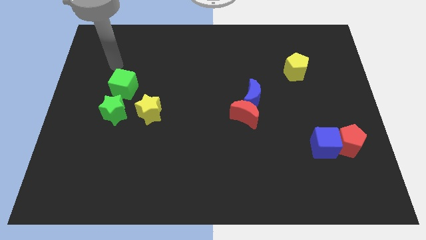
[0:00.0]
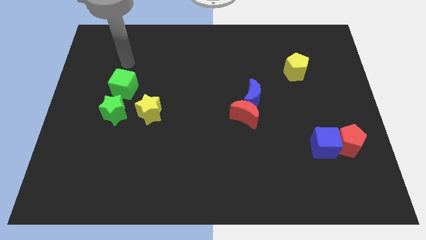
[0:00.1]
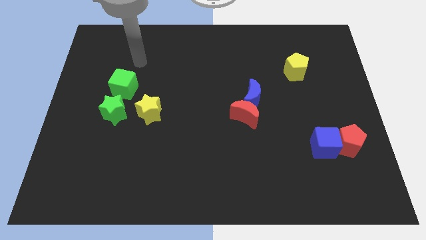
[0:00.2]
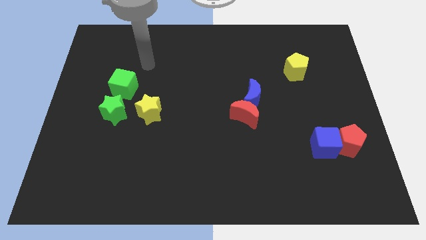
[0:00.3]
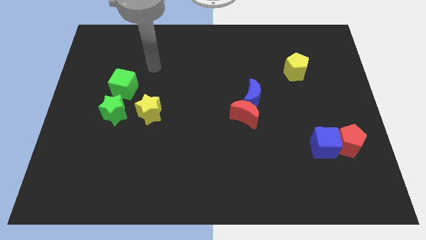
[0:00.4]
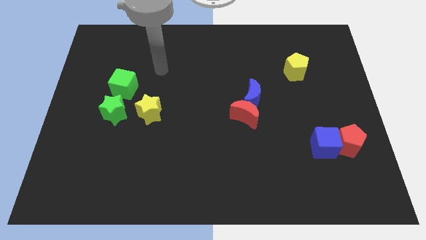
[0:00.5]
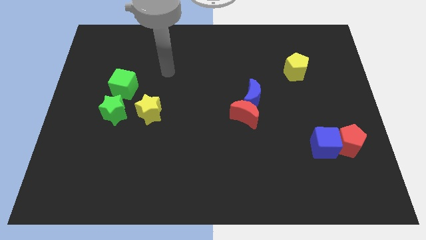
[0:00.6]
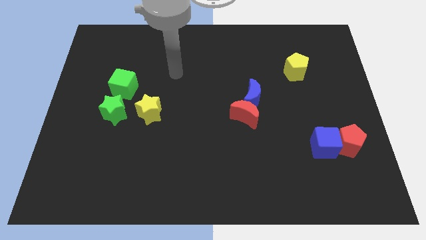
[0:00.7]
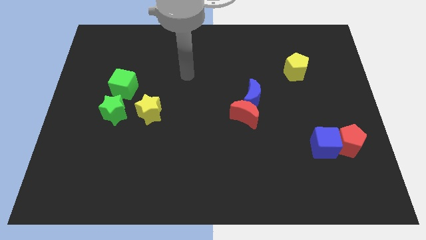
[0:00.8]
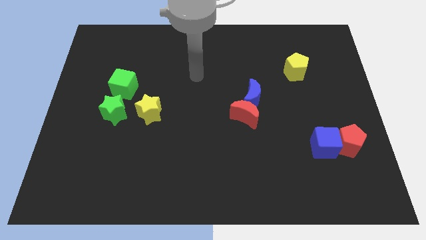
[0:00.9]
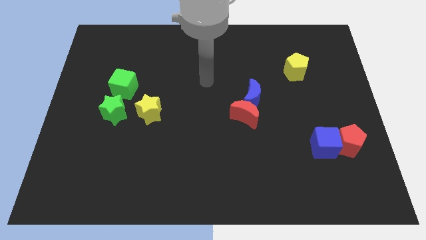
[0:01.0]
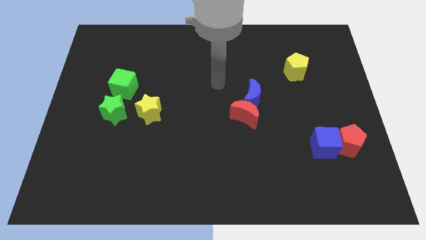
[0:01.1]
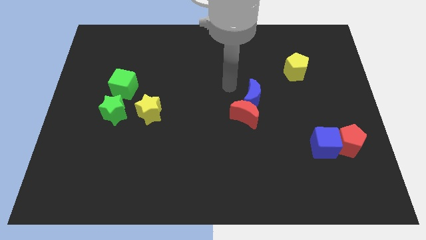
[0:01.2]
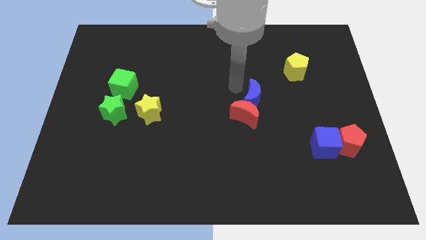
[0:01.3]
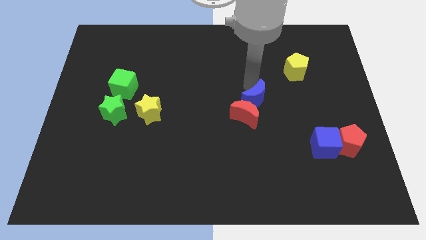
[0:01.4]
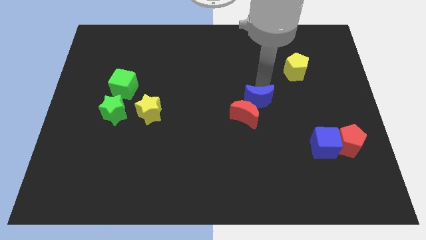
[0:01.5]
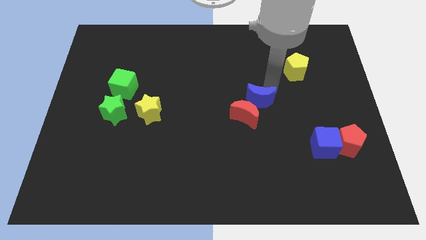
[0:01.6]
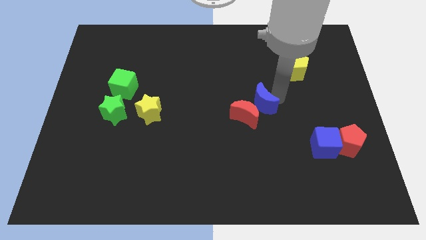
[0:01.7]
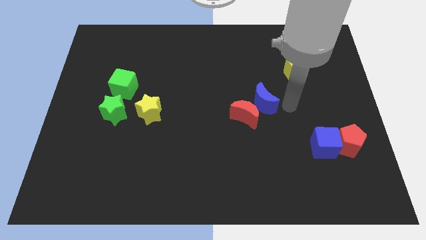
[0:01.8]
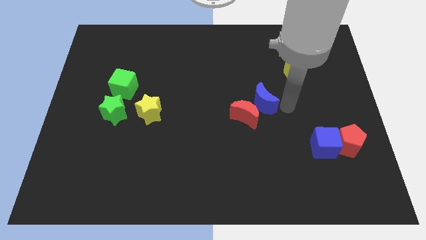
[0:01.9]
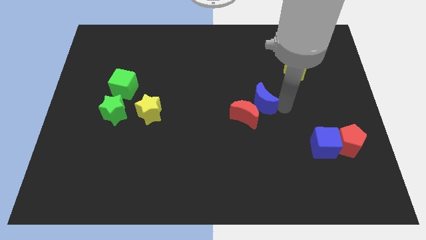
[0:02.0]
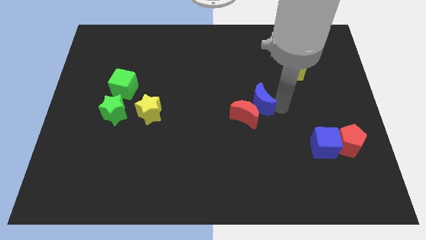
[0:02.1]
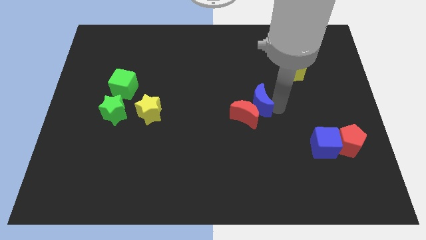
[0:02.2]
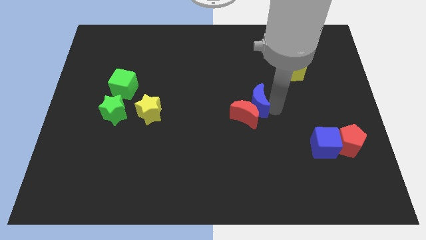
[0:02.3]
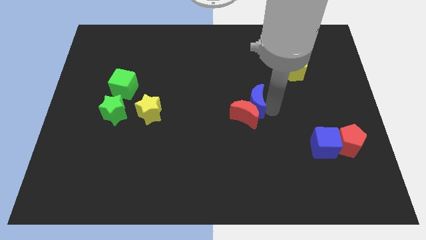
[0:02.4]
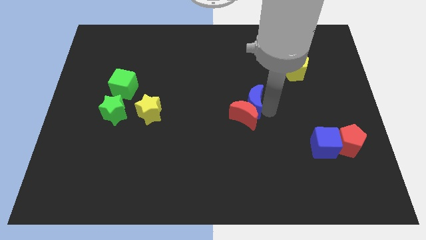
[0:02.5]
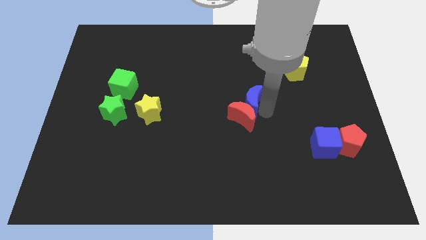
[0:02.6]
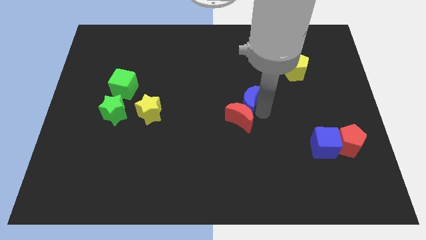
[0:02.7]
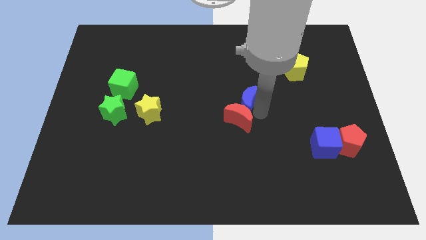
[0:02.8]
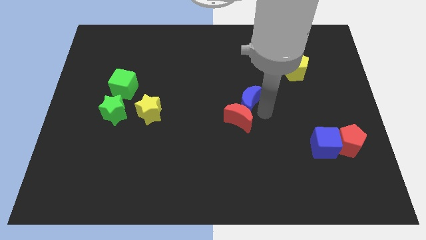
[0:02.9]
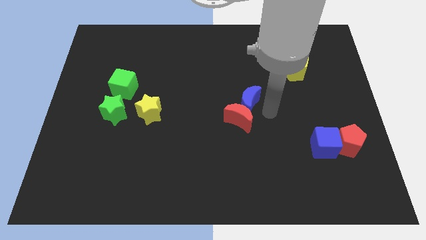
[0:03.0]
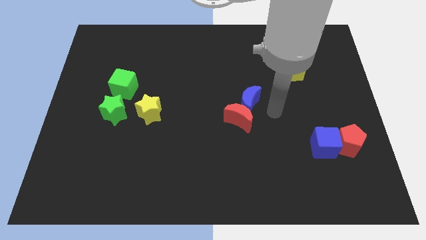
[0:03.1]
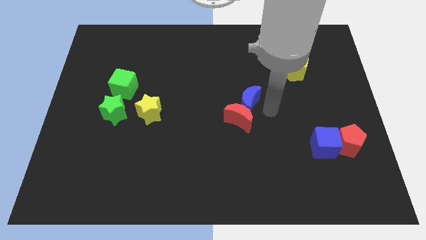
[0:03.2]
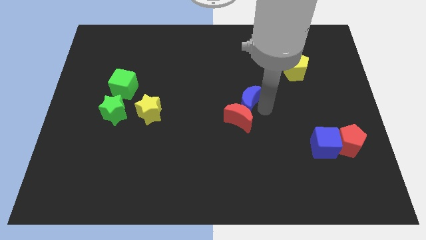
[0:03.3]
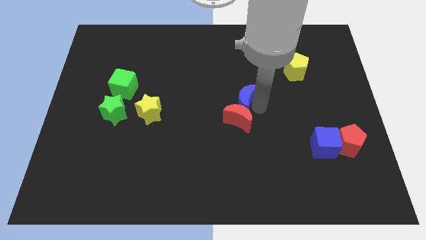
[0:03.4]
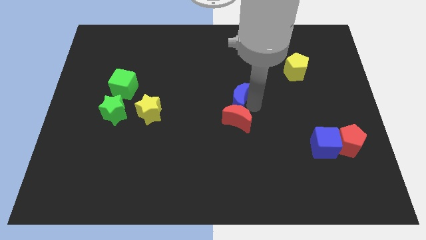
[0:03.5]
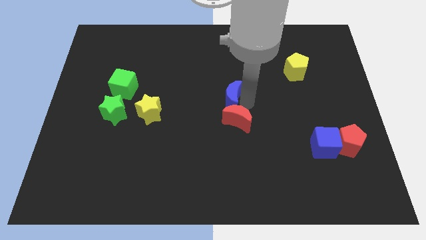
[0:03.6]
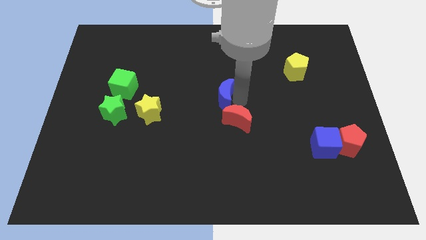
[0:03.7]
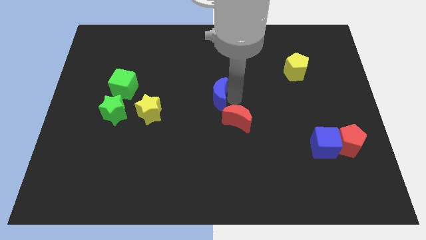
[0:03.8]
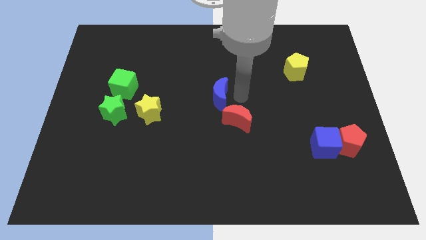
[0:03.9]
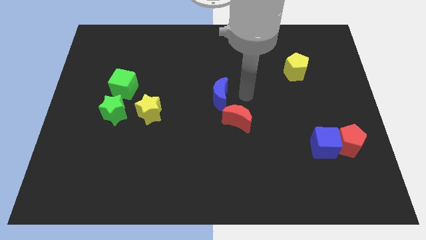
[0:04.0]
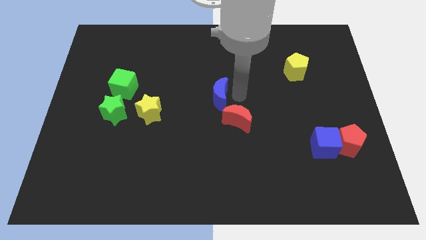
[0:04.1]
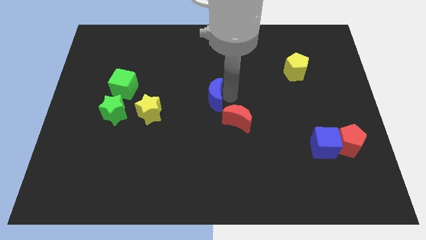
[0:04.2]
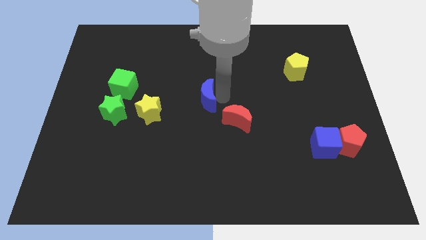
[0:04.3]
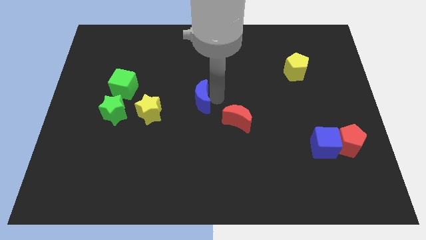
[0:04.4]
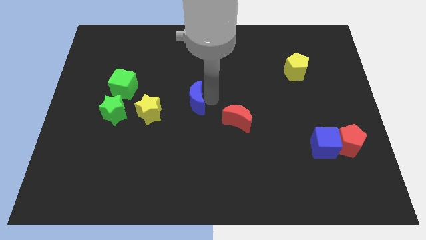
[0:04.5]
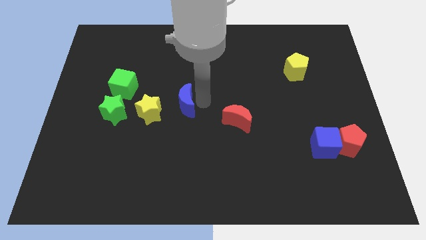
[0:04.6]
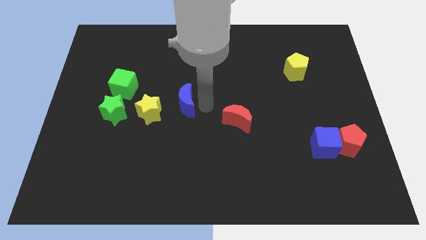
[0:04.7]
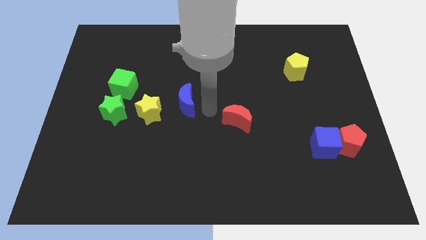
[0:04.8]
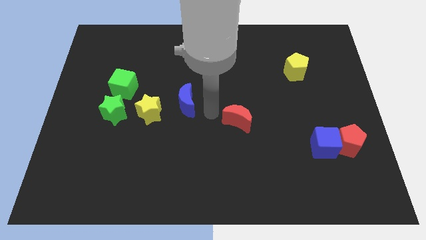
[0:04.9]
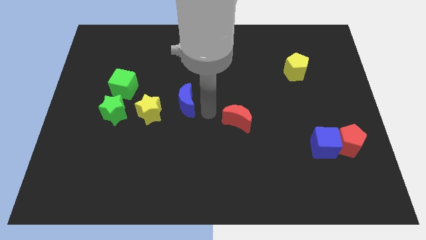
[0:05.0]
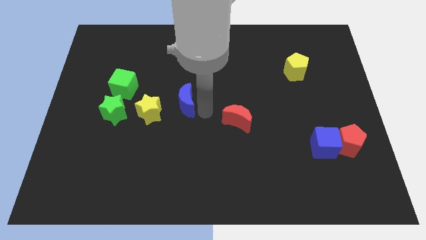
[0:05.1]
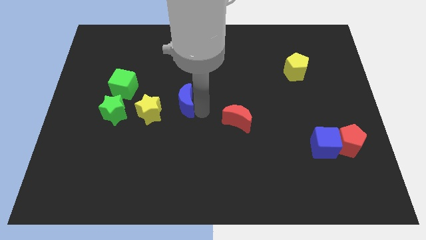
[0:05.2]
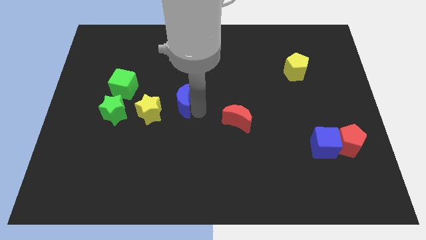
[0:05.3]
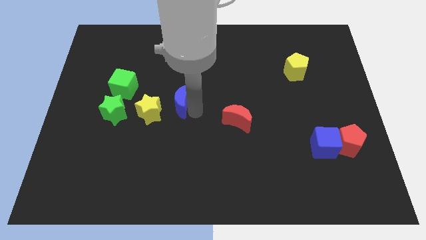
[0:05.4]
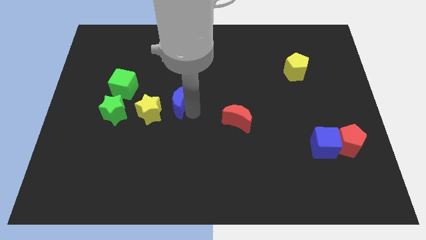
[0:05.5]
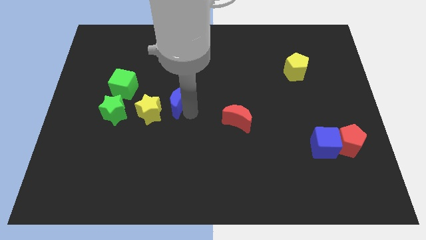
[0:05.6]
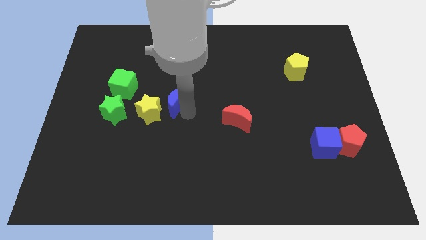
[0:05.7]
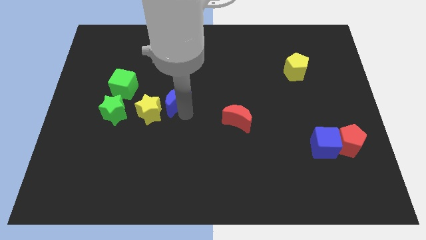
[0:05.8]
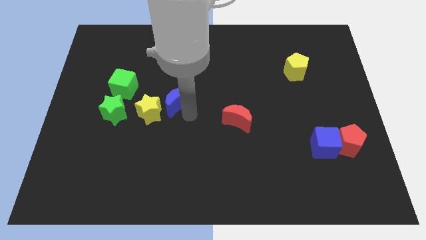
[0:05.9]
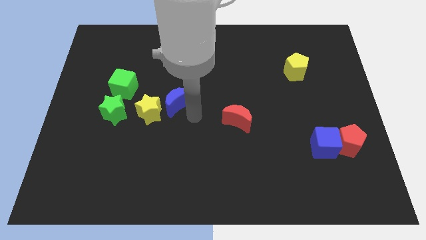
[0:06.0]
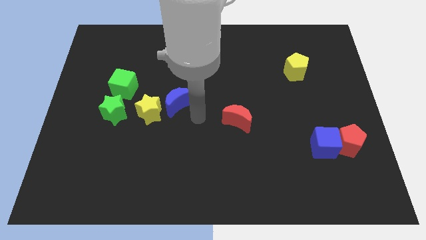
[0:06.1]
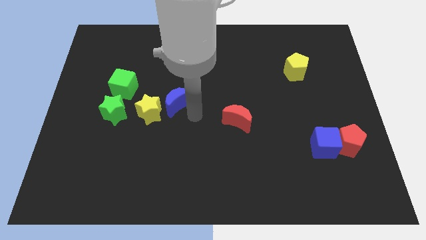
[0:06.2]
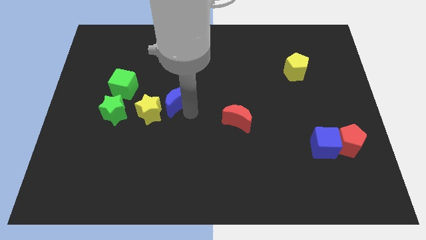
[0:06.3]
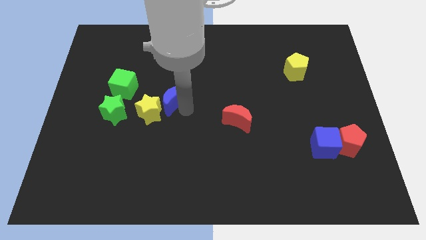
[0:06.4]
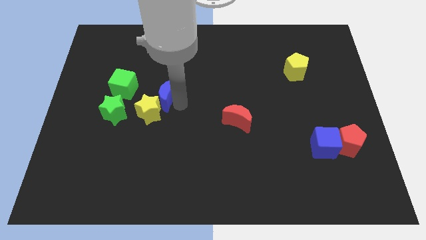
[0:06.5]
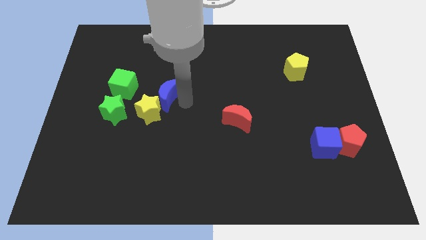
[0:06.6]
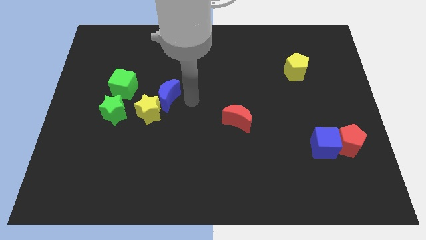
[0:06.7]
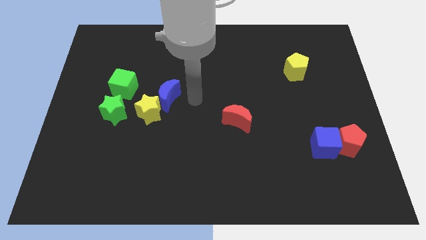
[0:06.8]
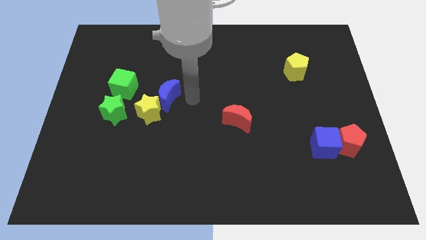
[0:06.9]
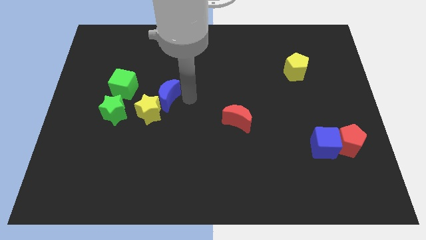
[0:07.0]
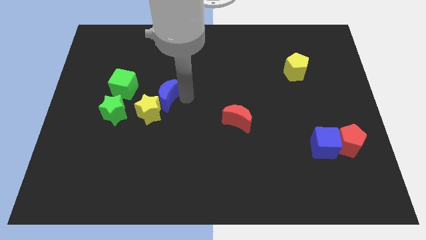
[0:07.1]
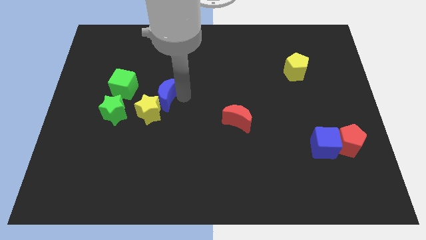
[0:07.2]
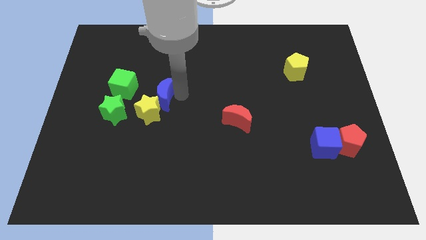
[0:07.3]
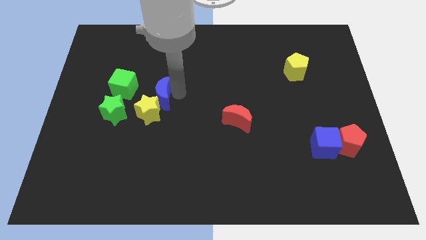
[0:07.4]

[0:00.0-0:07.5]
move the blue moon diagonally up and to the right of the green star

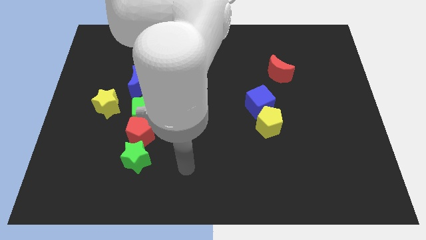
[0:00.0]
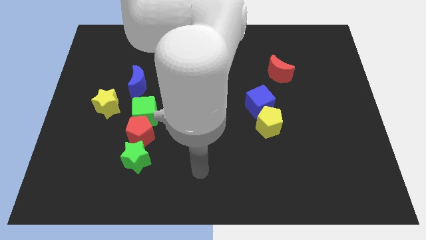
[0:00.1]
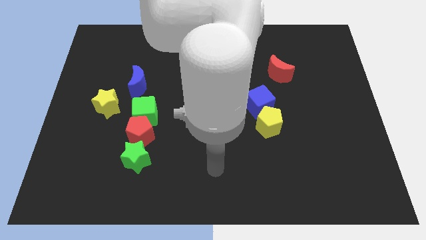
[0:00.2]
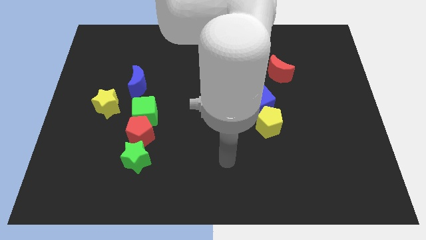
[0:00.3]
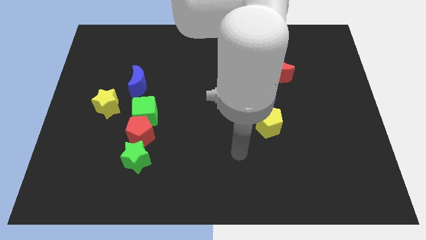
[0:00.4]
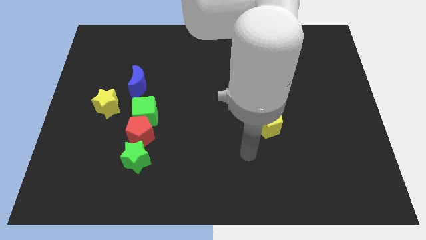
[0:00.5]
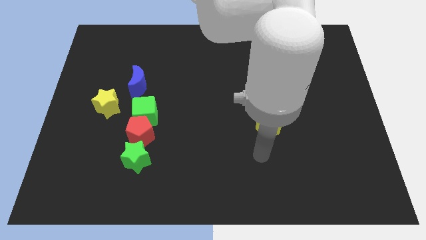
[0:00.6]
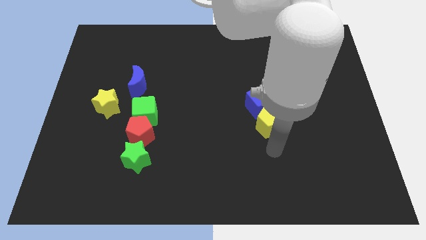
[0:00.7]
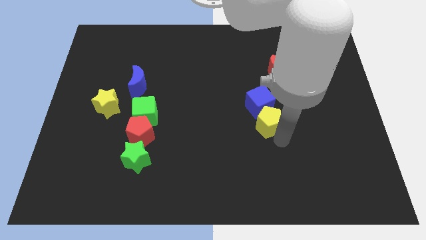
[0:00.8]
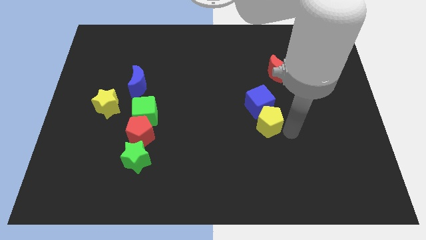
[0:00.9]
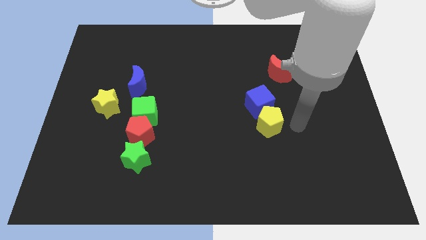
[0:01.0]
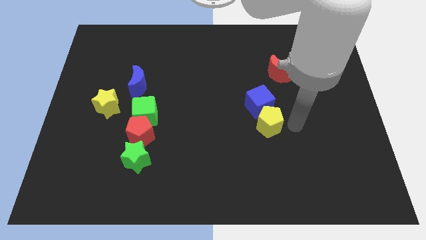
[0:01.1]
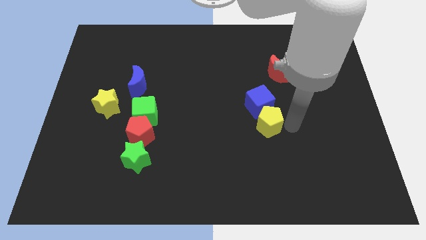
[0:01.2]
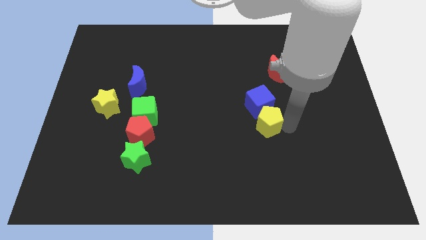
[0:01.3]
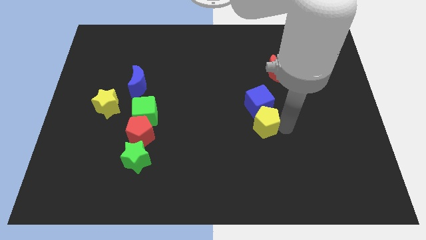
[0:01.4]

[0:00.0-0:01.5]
move the yellow pentagon to the bottom left side of the blue cube
